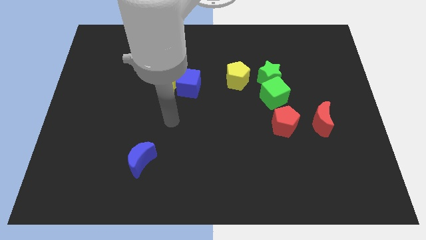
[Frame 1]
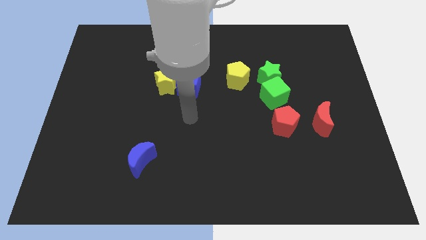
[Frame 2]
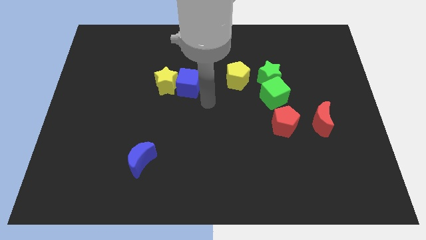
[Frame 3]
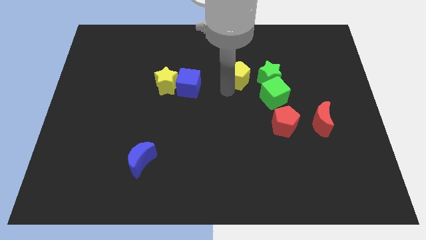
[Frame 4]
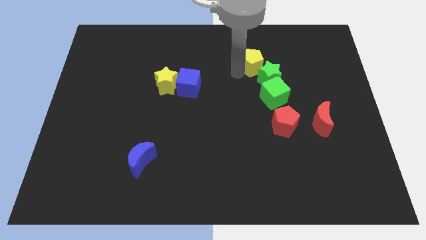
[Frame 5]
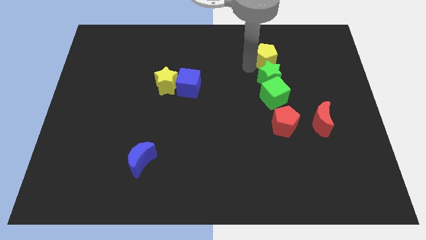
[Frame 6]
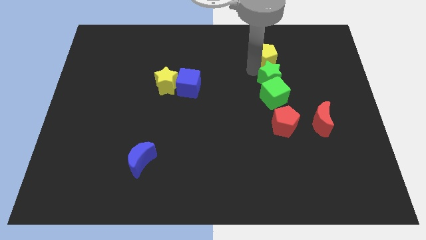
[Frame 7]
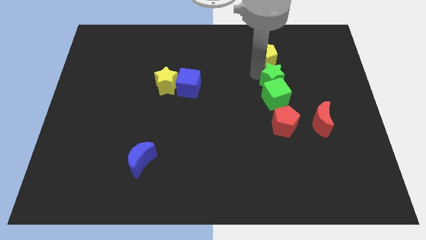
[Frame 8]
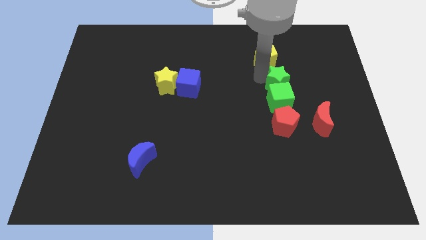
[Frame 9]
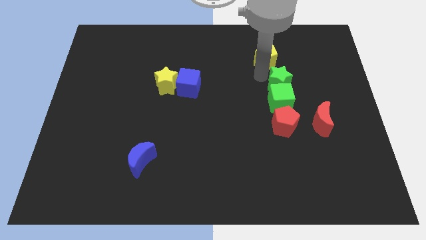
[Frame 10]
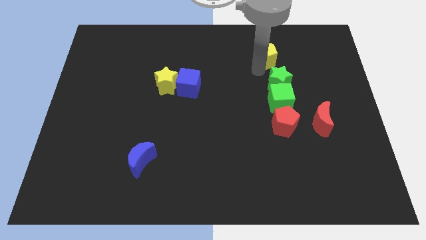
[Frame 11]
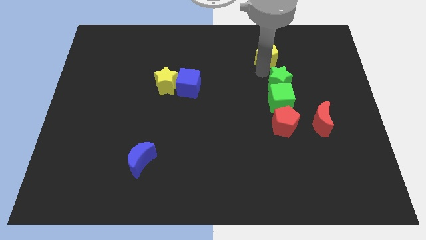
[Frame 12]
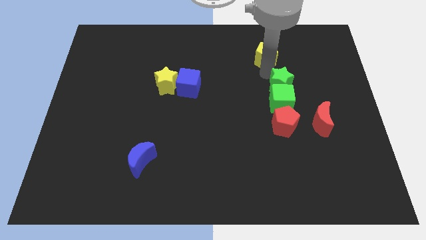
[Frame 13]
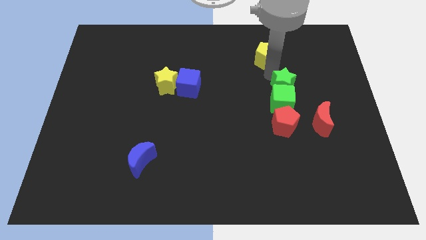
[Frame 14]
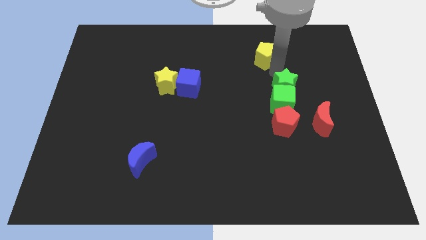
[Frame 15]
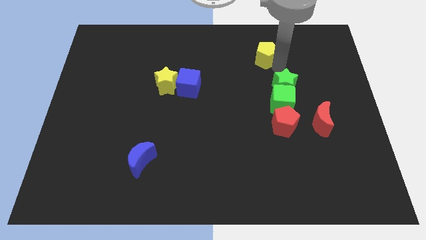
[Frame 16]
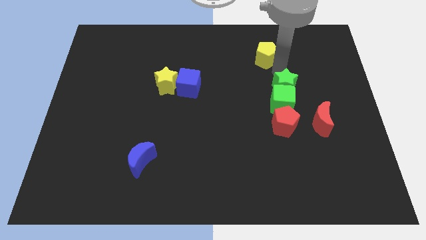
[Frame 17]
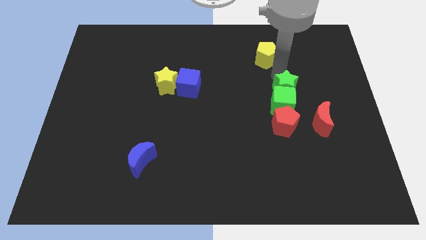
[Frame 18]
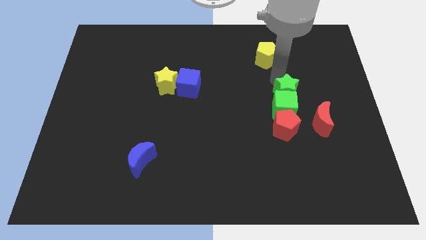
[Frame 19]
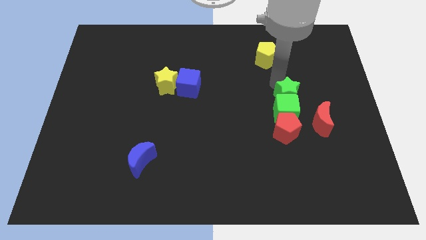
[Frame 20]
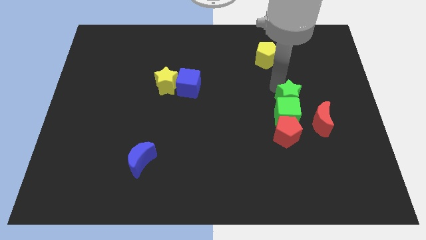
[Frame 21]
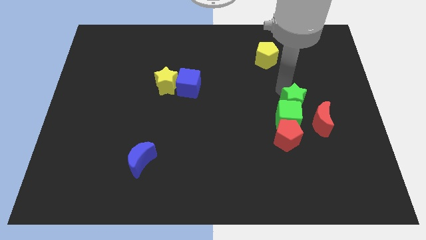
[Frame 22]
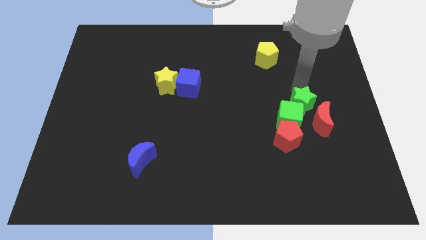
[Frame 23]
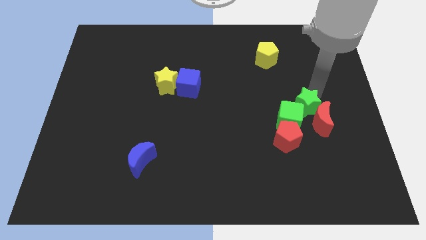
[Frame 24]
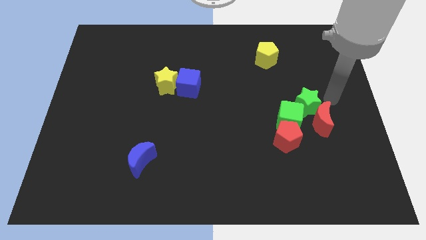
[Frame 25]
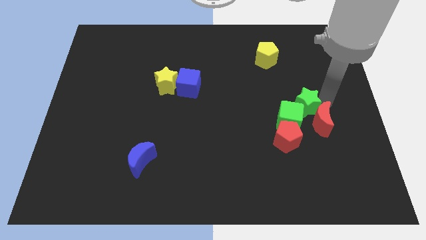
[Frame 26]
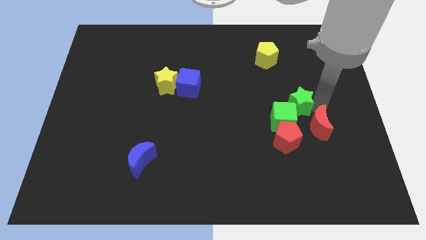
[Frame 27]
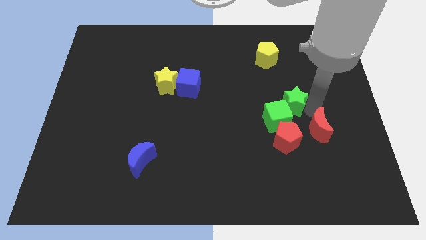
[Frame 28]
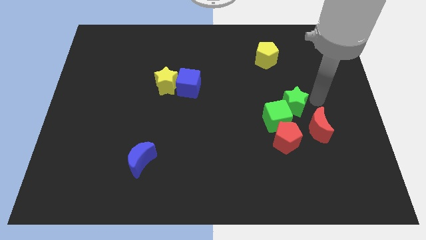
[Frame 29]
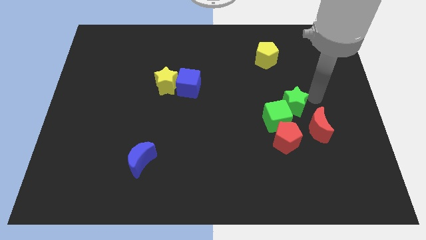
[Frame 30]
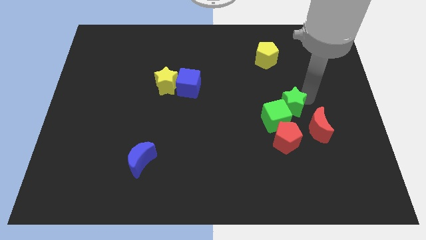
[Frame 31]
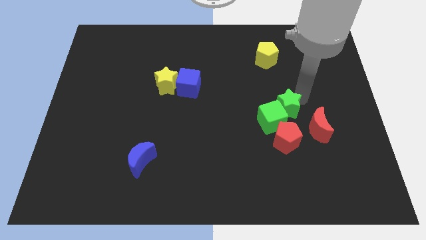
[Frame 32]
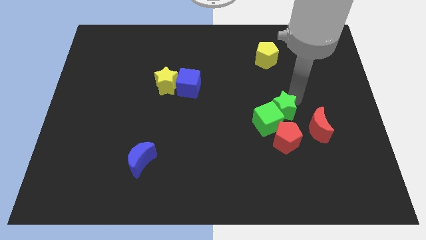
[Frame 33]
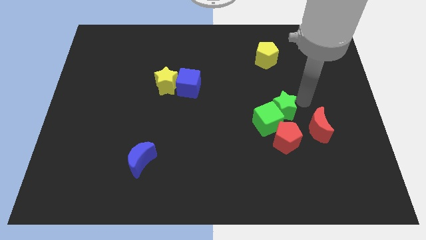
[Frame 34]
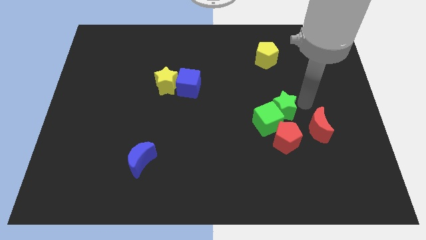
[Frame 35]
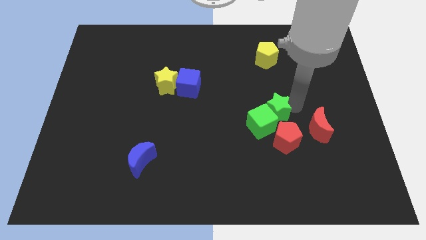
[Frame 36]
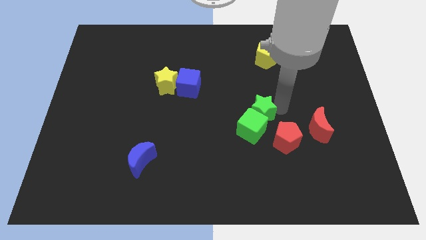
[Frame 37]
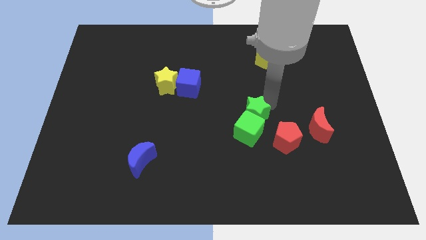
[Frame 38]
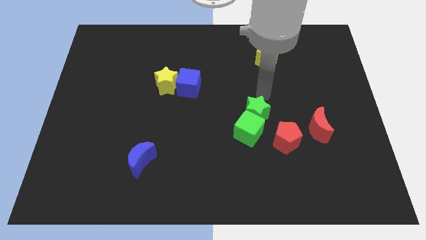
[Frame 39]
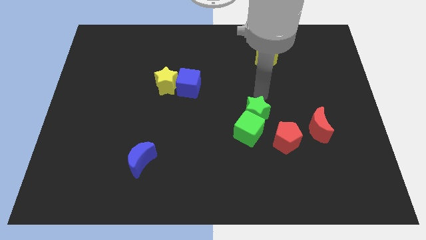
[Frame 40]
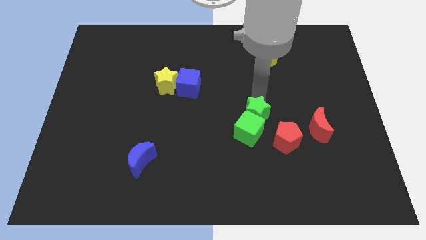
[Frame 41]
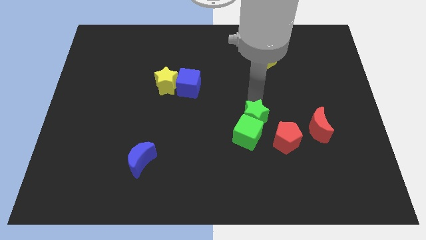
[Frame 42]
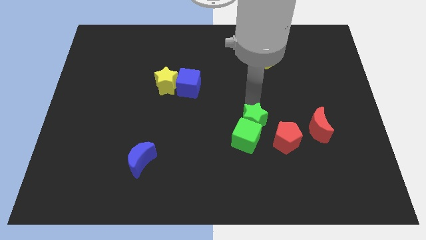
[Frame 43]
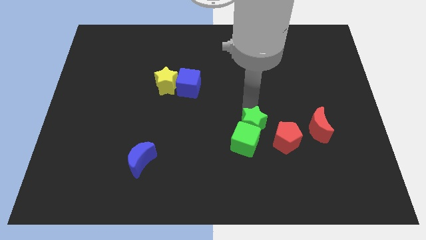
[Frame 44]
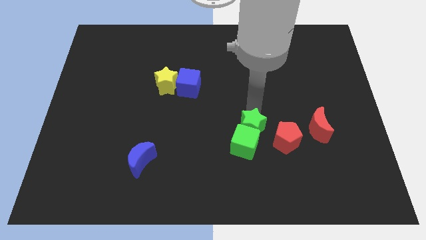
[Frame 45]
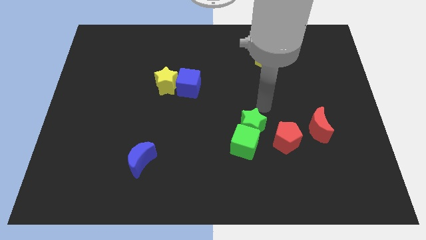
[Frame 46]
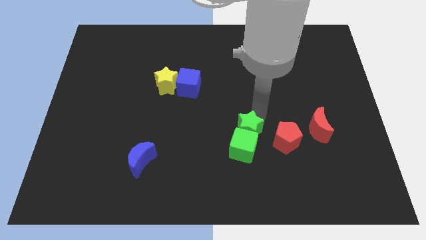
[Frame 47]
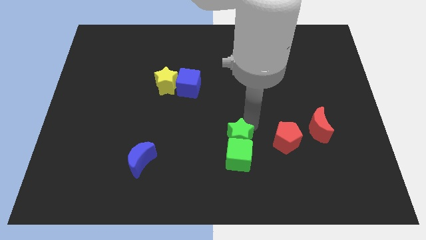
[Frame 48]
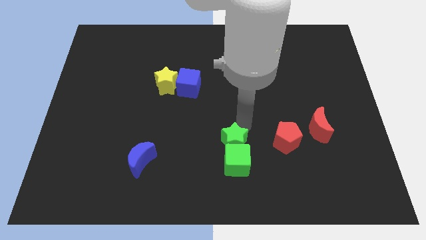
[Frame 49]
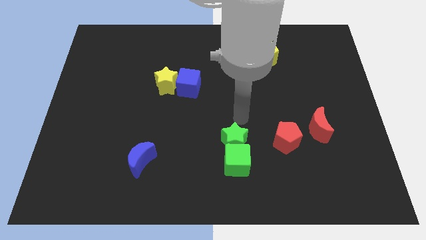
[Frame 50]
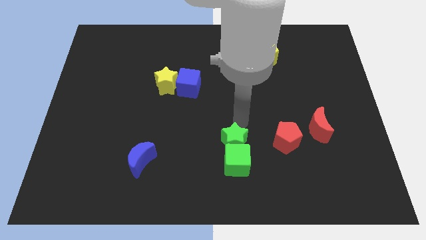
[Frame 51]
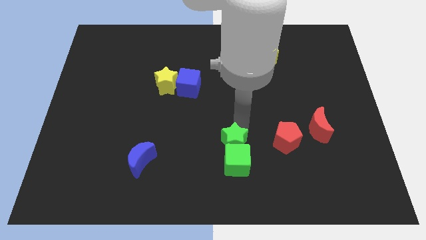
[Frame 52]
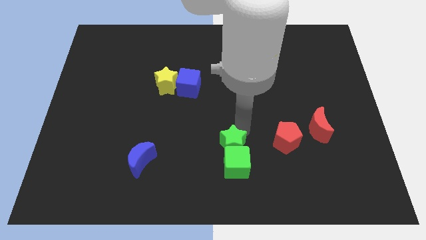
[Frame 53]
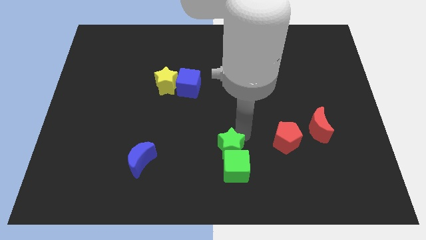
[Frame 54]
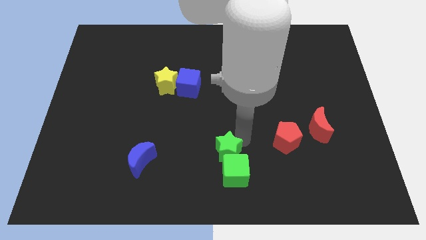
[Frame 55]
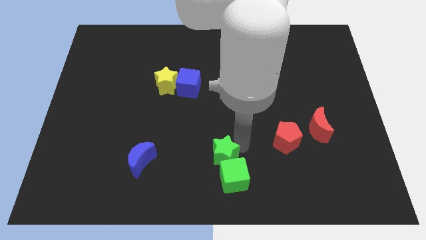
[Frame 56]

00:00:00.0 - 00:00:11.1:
slide the green star to the bottom side

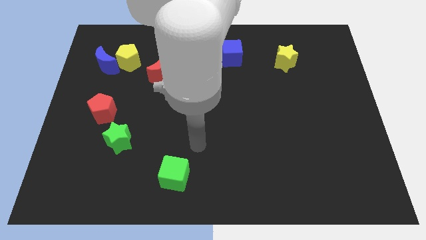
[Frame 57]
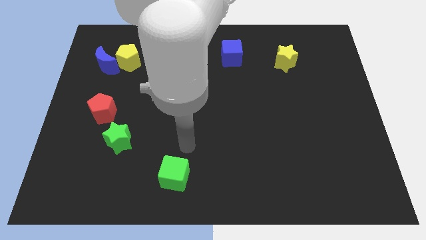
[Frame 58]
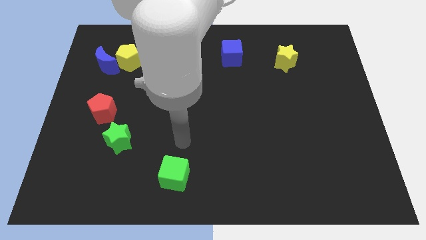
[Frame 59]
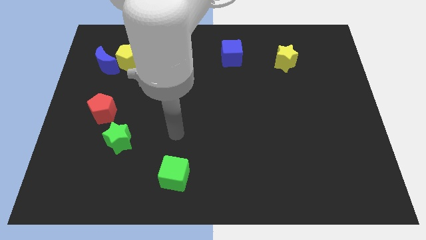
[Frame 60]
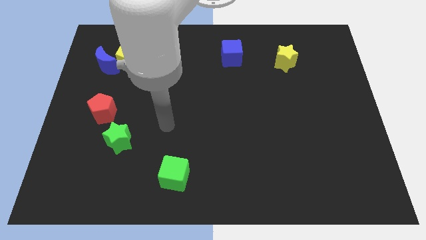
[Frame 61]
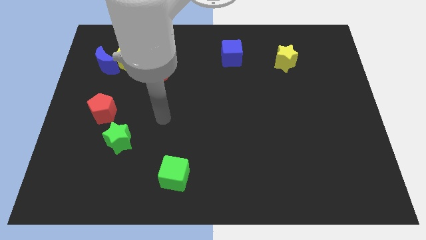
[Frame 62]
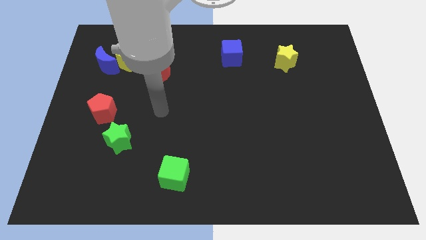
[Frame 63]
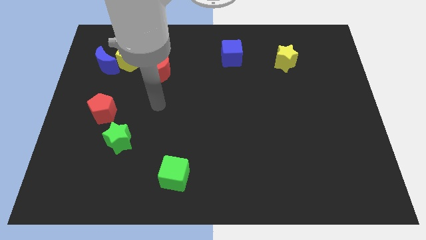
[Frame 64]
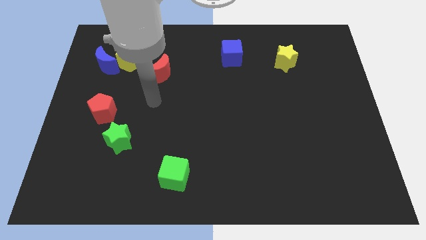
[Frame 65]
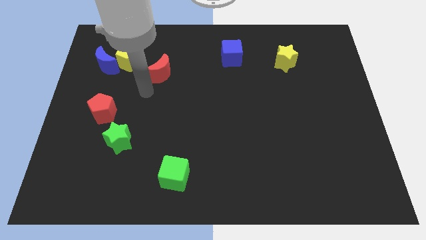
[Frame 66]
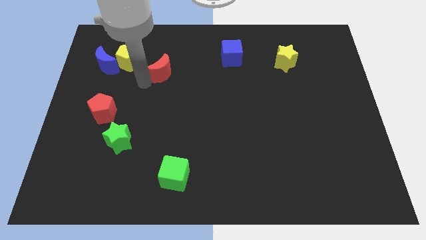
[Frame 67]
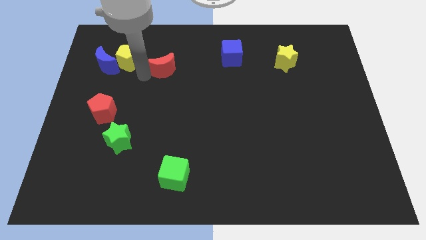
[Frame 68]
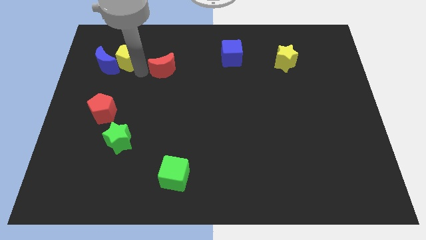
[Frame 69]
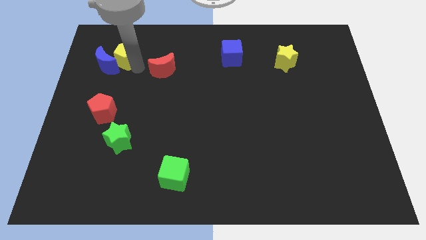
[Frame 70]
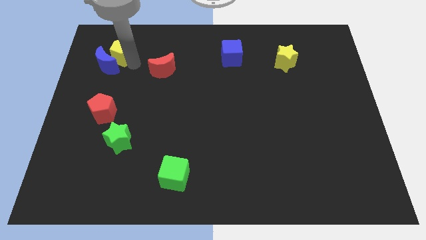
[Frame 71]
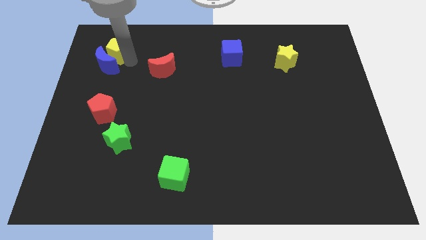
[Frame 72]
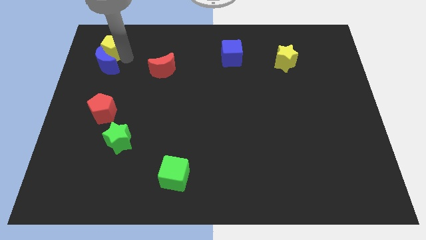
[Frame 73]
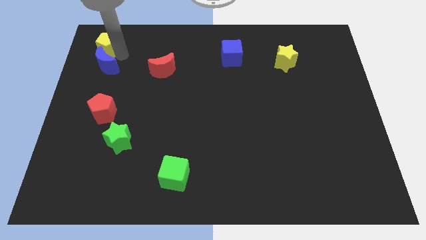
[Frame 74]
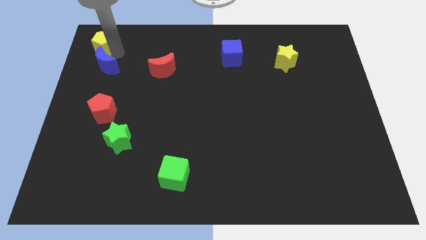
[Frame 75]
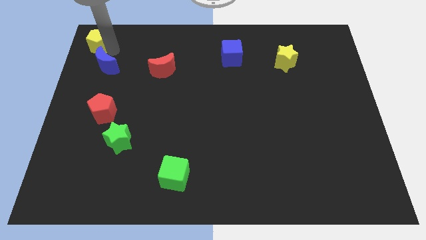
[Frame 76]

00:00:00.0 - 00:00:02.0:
put the yellow pentagon to the top left of the board
